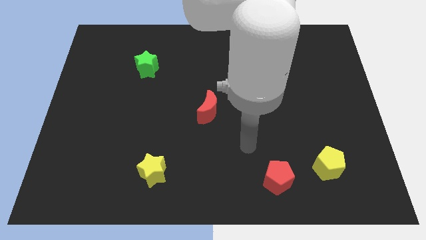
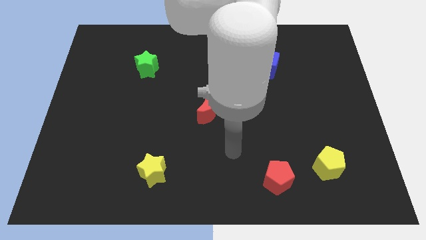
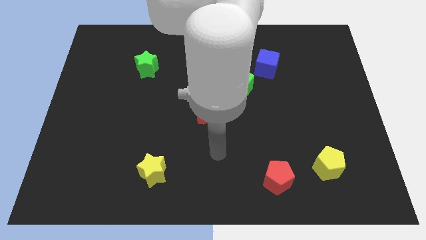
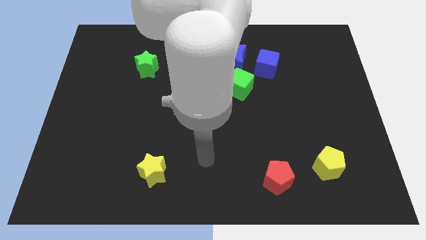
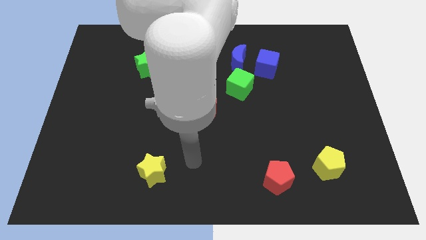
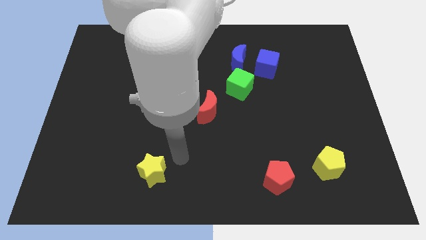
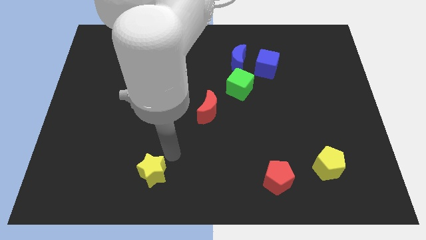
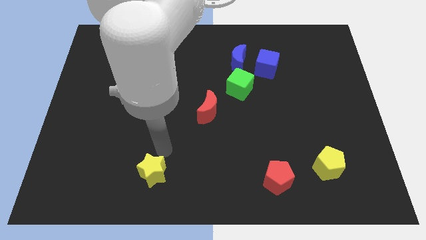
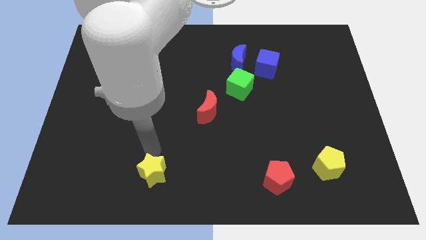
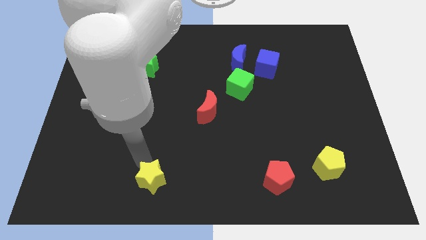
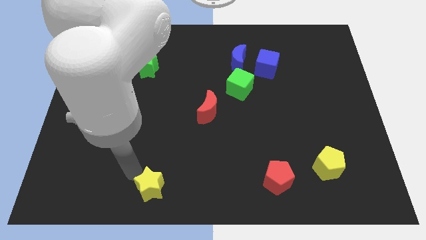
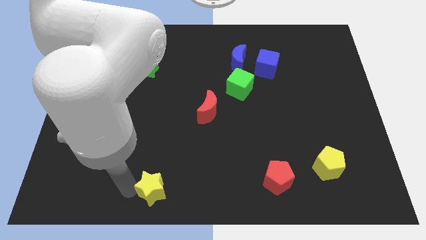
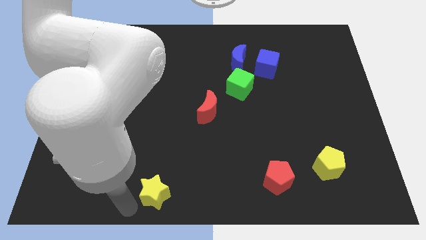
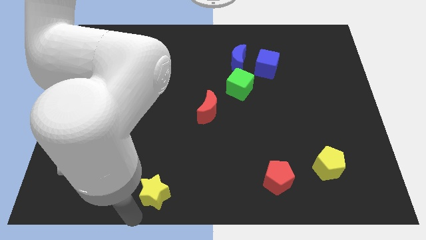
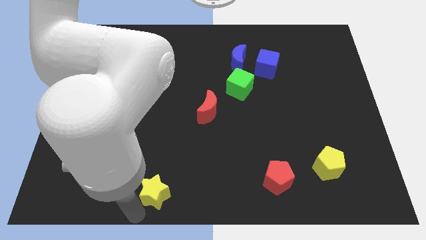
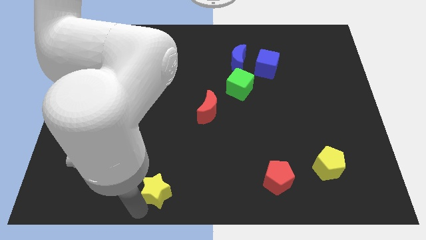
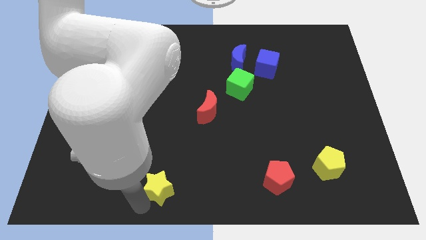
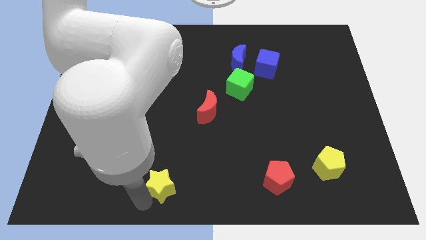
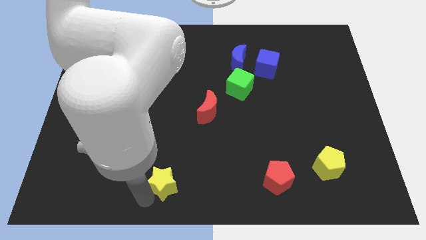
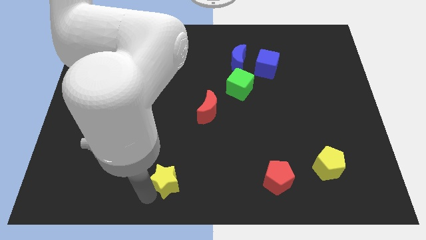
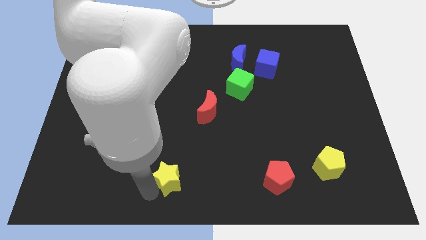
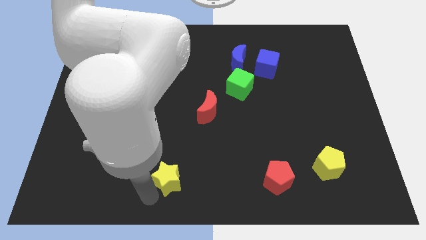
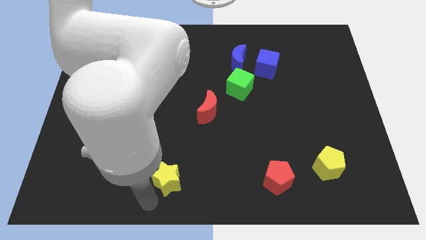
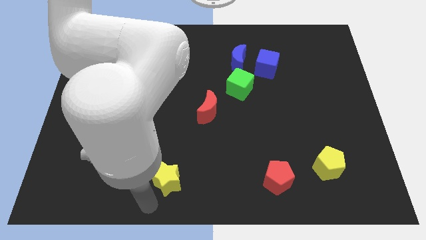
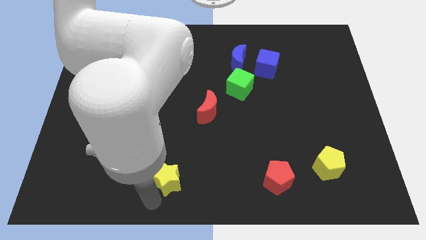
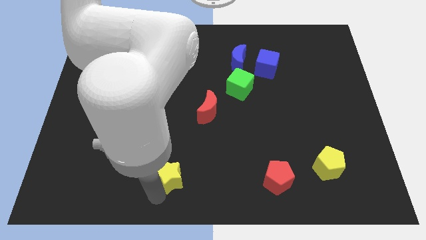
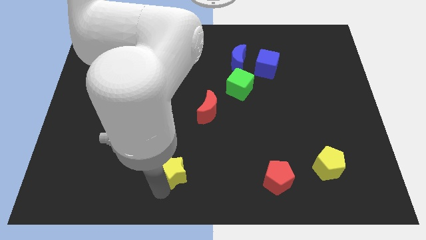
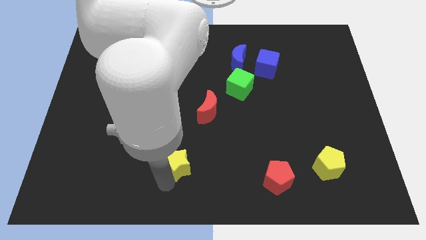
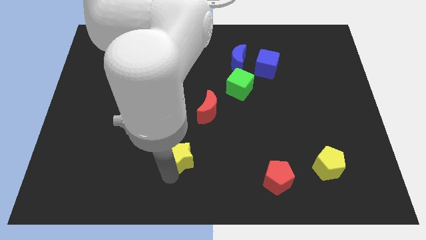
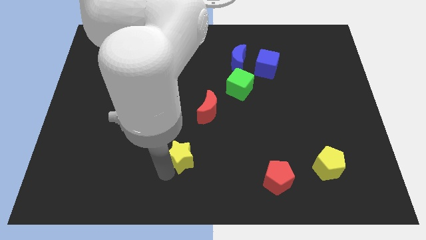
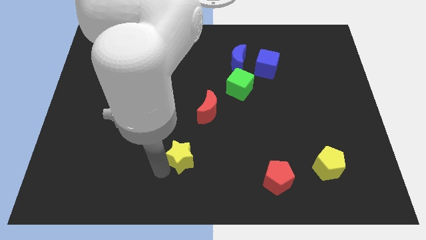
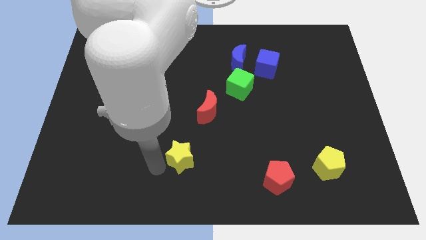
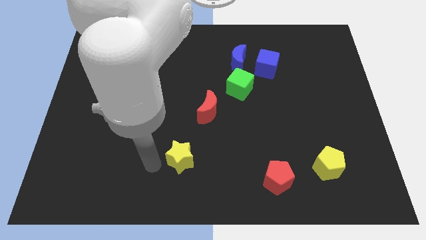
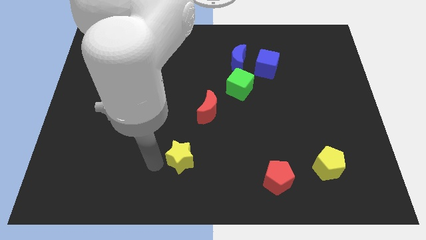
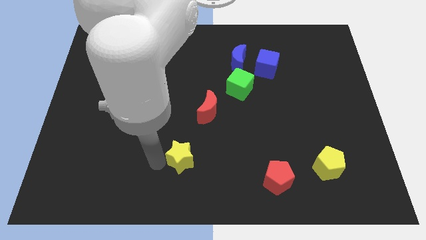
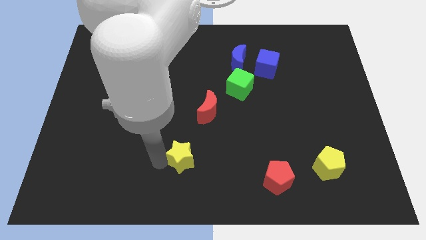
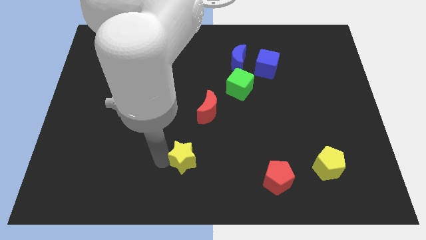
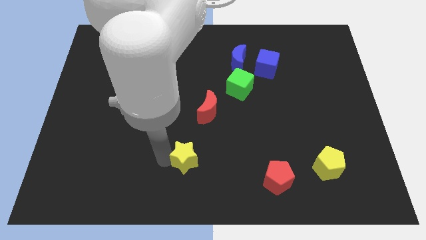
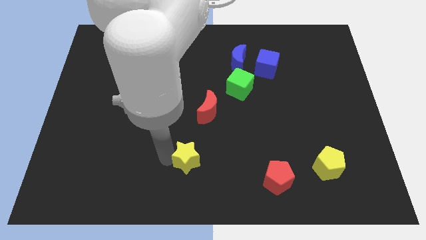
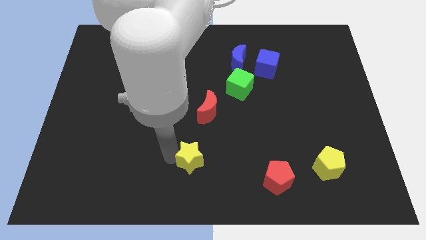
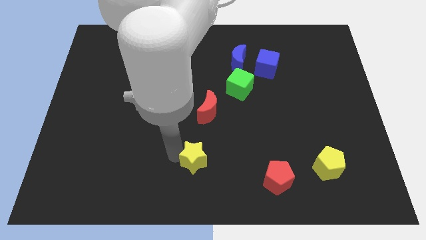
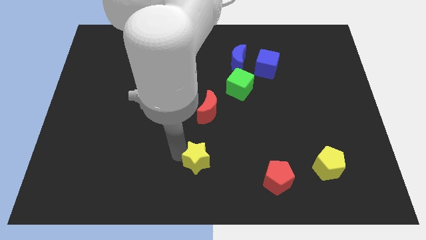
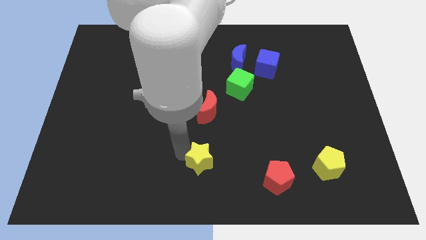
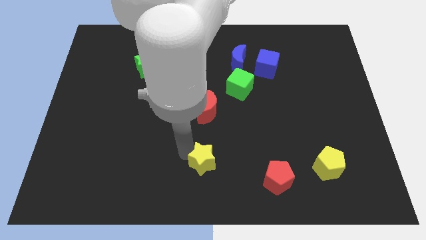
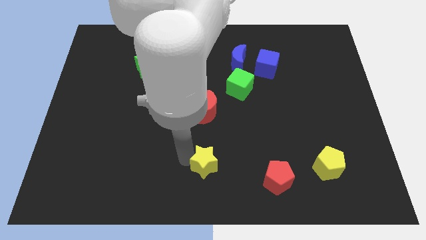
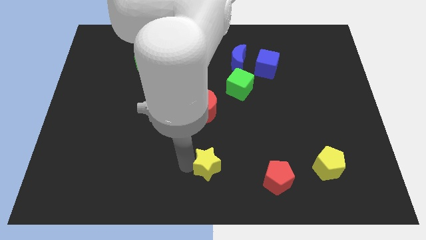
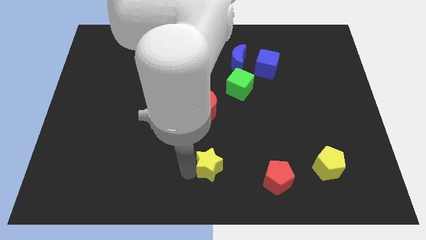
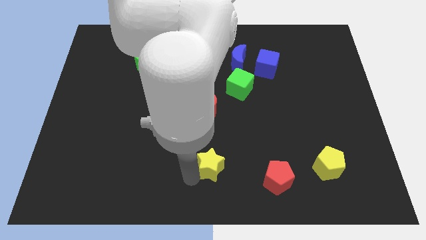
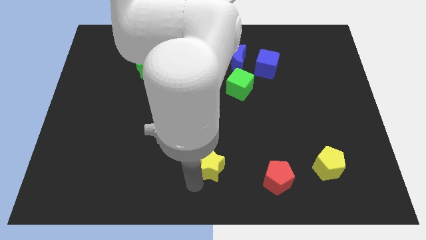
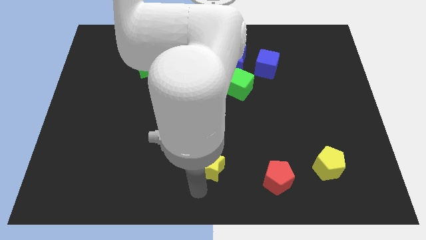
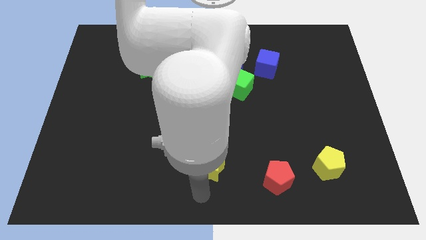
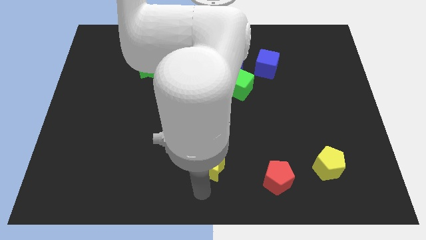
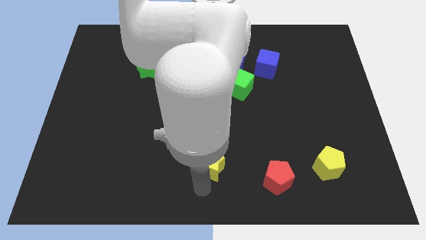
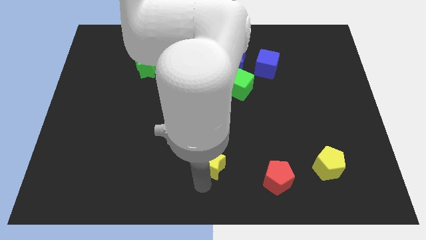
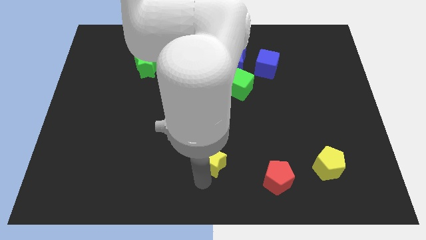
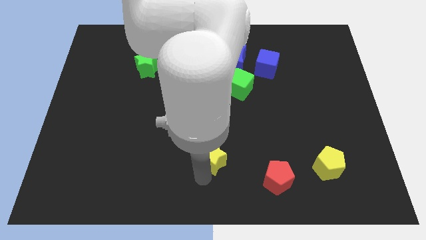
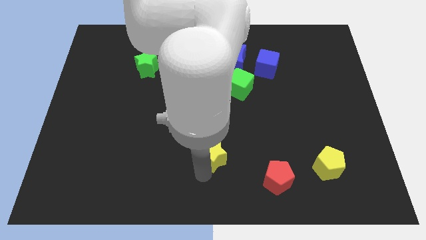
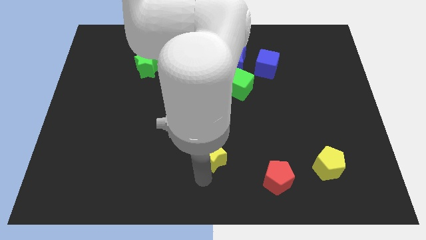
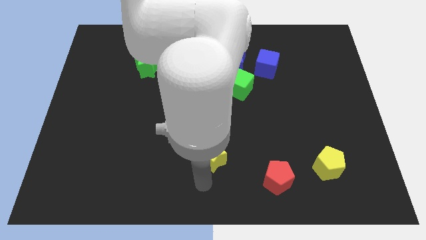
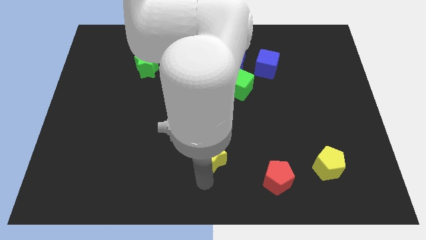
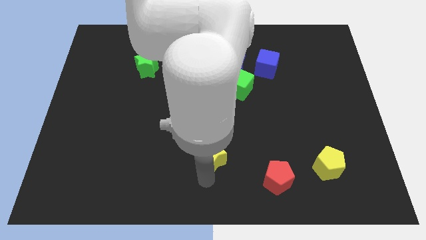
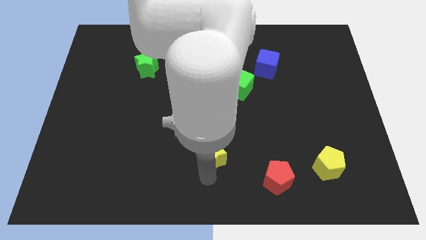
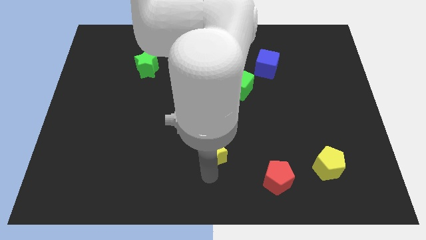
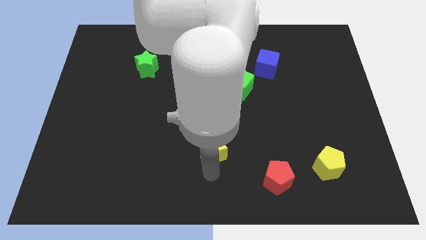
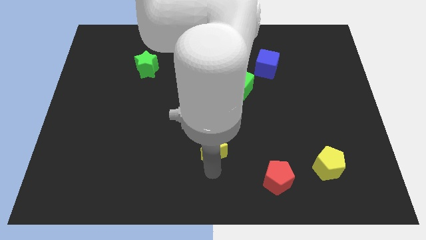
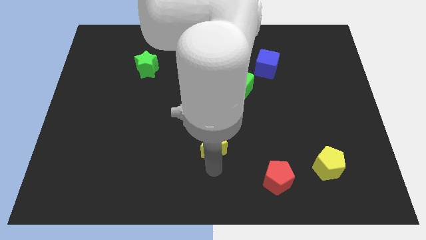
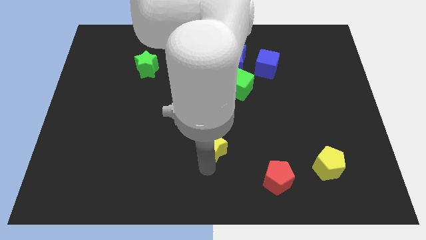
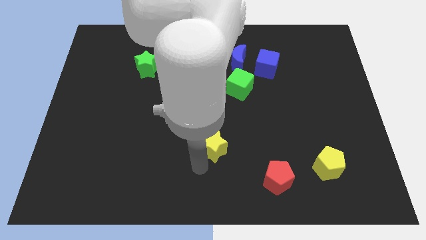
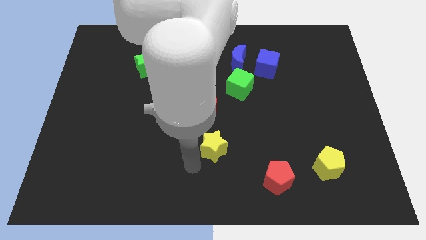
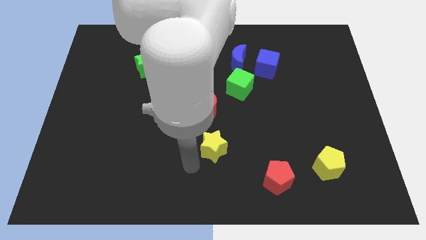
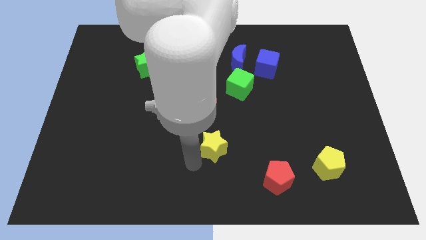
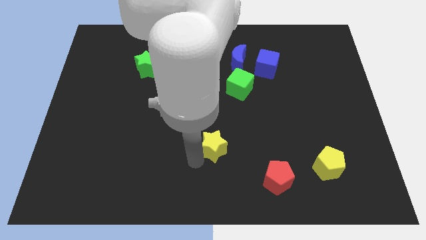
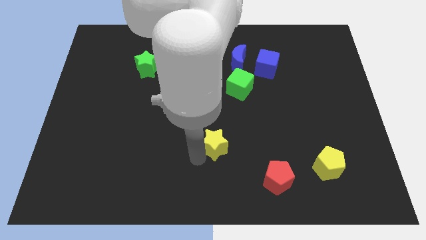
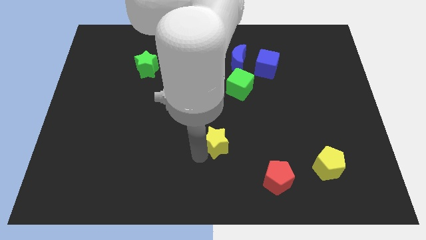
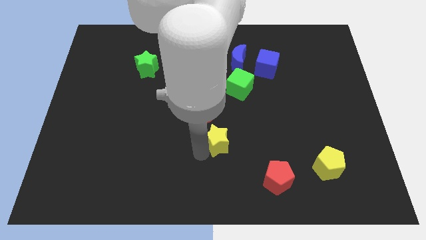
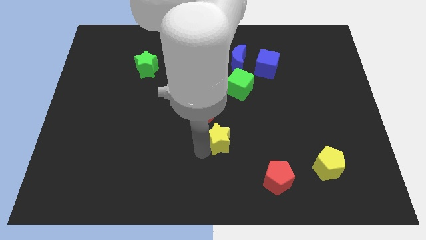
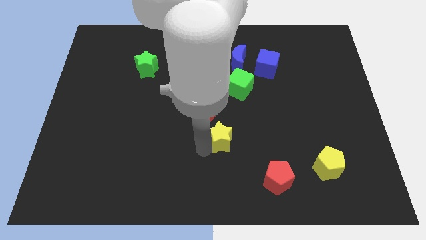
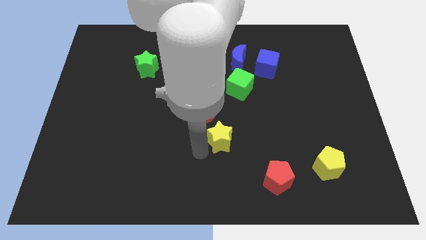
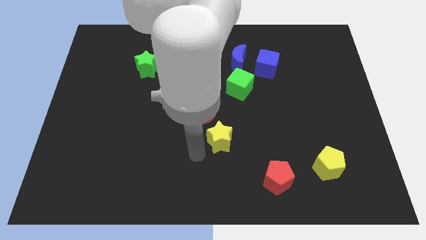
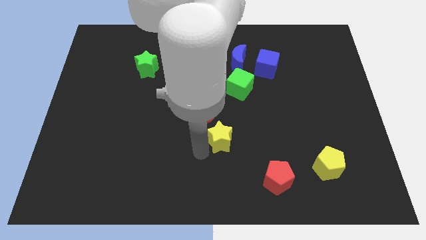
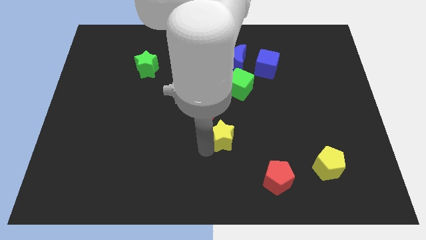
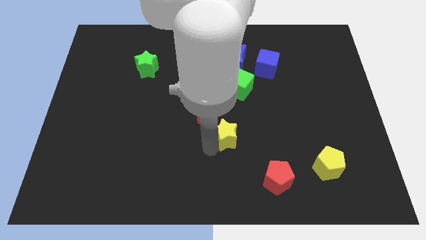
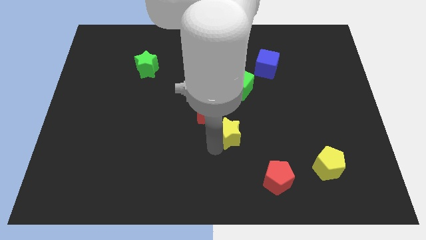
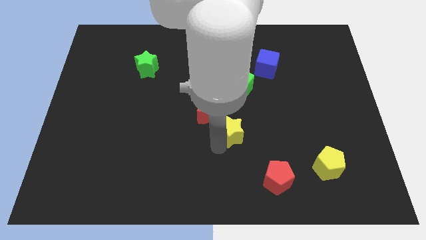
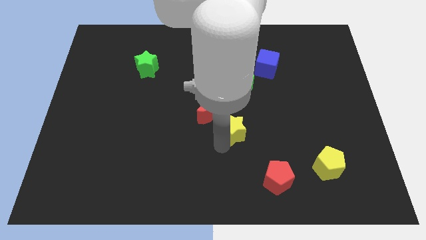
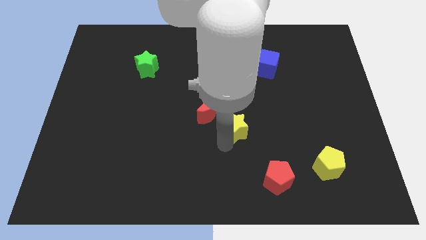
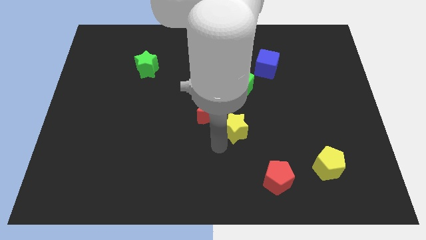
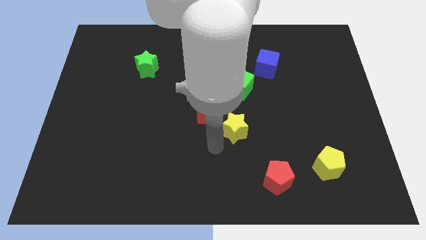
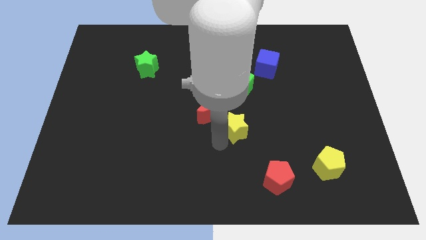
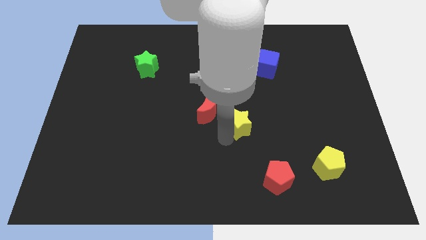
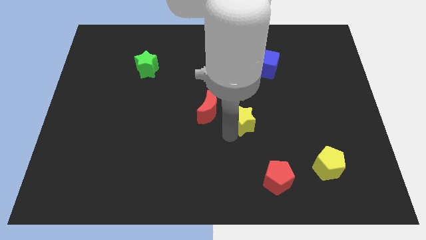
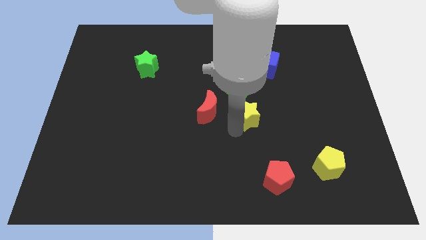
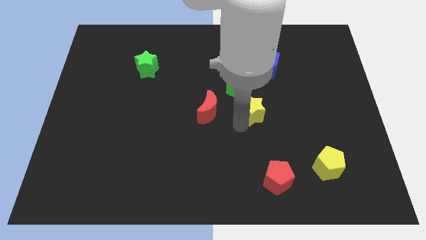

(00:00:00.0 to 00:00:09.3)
push the yellow star diagonally down and to the right of the green cube
